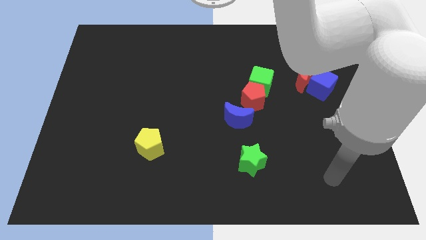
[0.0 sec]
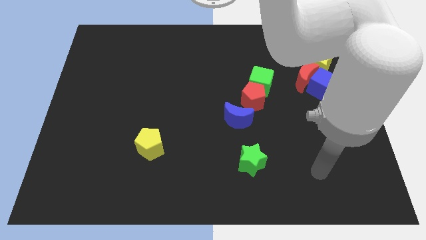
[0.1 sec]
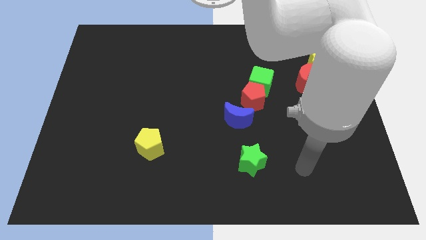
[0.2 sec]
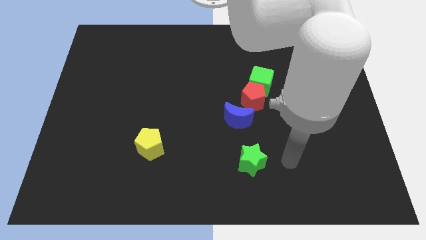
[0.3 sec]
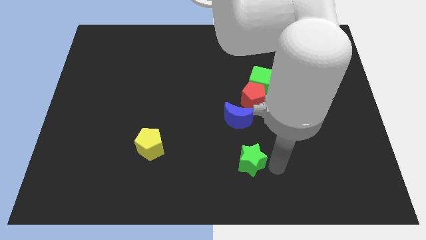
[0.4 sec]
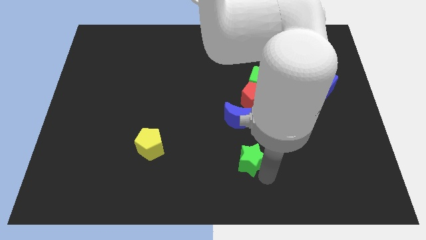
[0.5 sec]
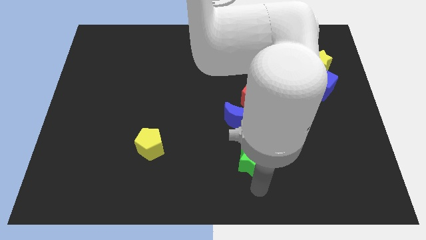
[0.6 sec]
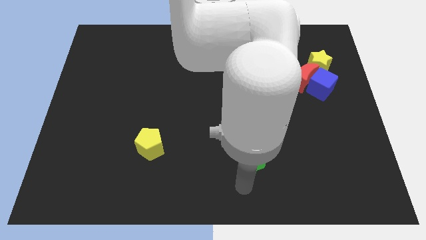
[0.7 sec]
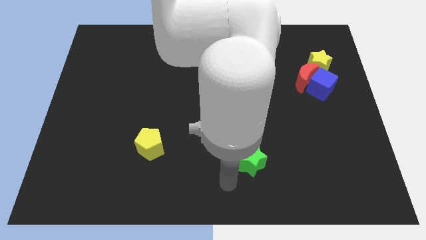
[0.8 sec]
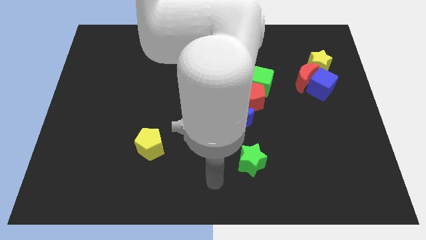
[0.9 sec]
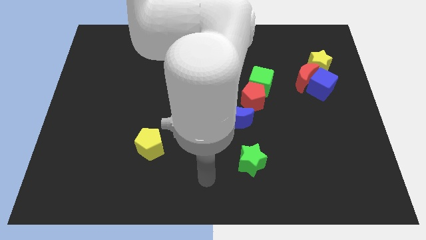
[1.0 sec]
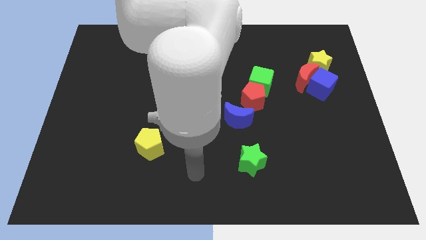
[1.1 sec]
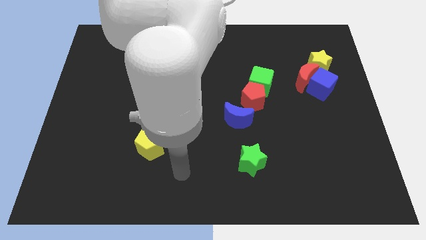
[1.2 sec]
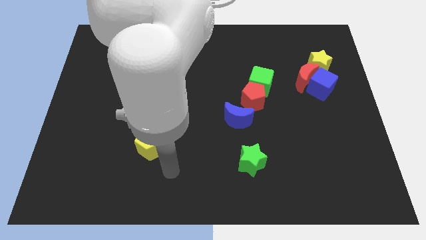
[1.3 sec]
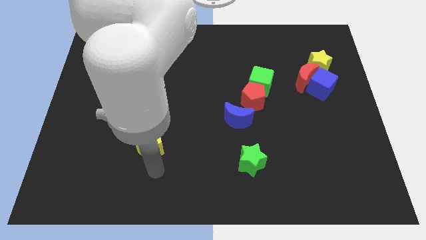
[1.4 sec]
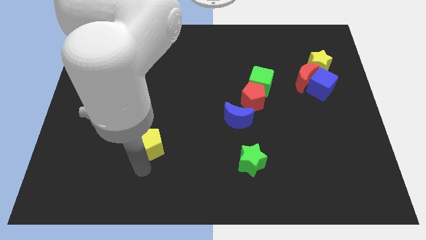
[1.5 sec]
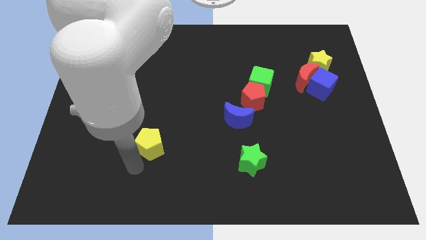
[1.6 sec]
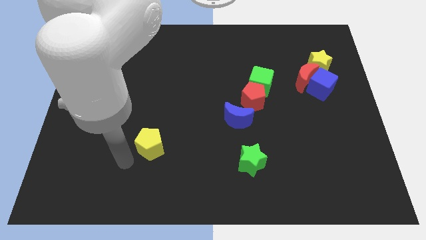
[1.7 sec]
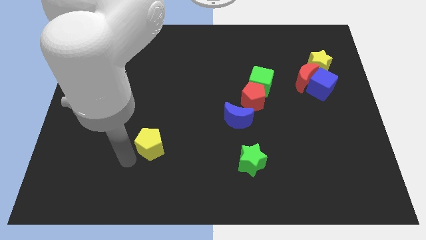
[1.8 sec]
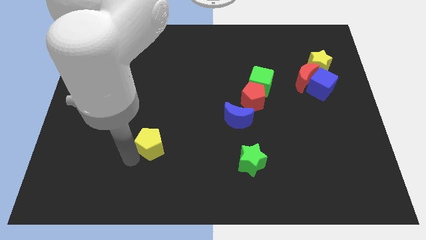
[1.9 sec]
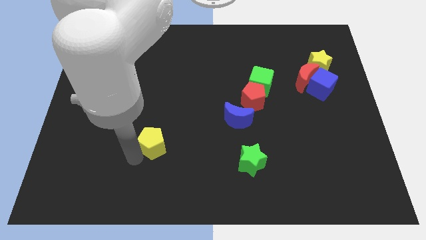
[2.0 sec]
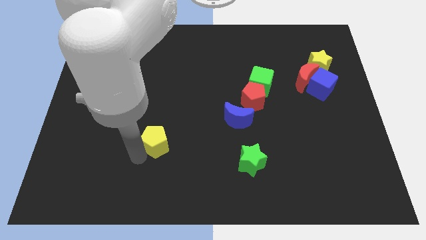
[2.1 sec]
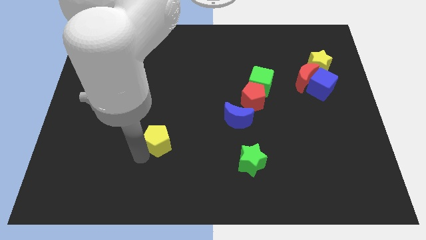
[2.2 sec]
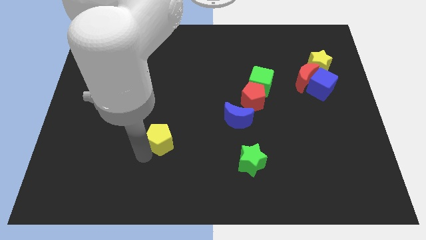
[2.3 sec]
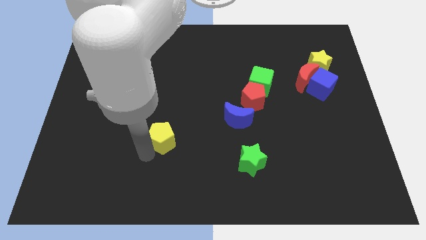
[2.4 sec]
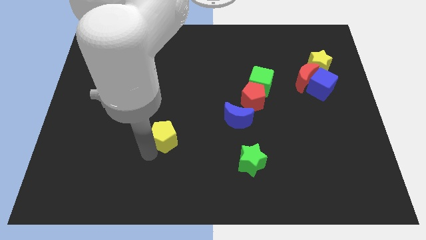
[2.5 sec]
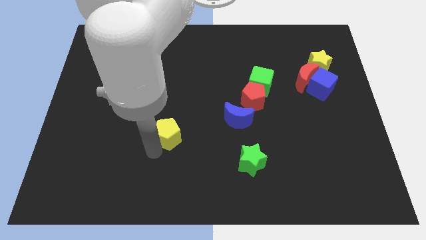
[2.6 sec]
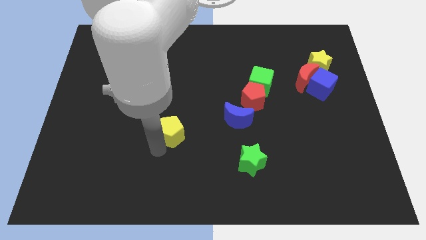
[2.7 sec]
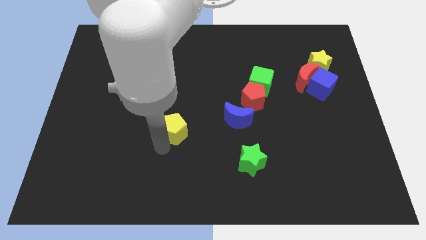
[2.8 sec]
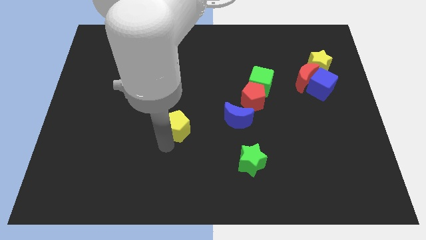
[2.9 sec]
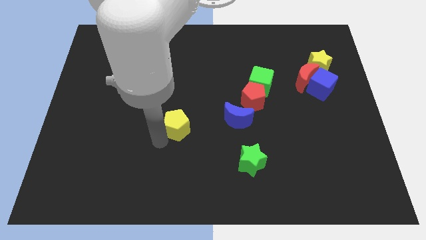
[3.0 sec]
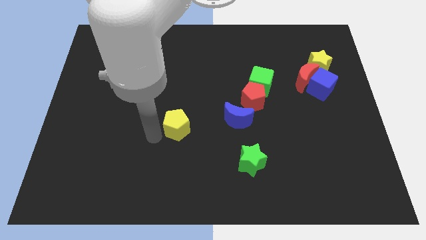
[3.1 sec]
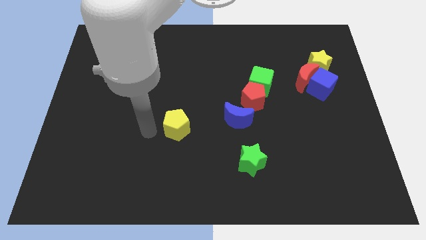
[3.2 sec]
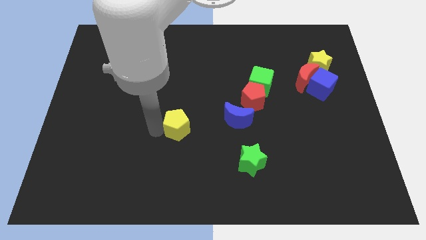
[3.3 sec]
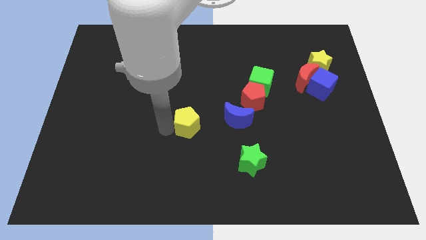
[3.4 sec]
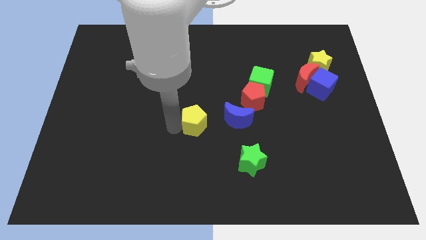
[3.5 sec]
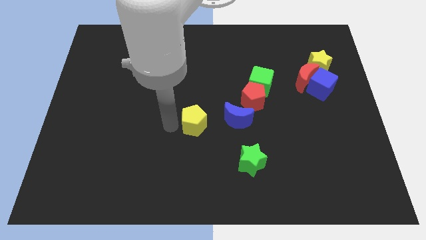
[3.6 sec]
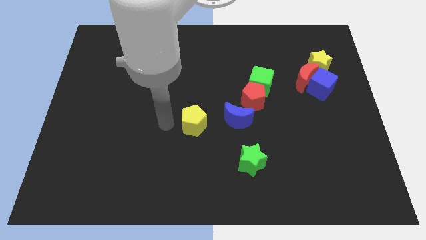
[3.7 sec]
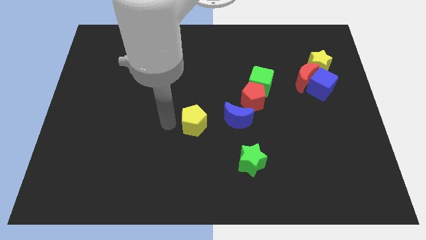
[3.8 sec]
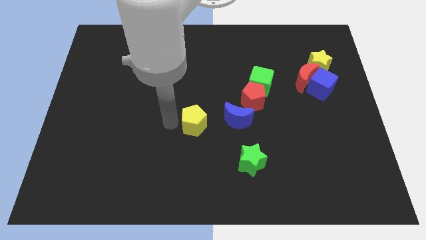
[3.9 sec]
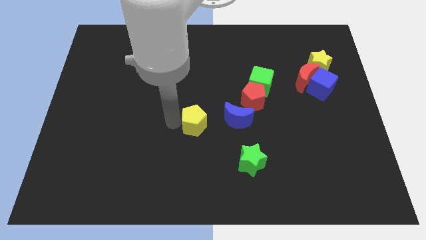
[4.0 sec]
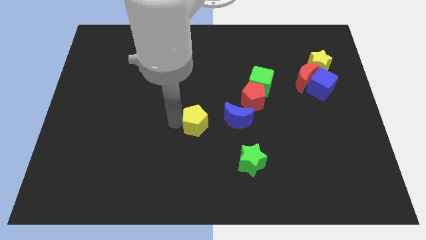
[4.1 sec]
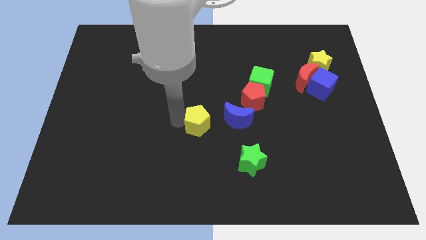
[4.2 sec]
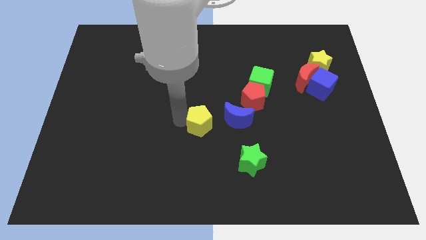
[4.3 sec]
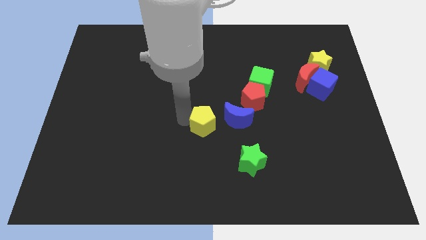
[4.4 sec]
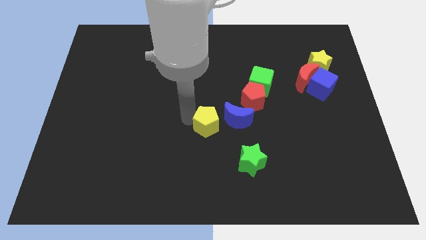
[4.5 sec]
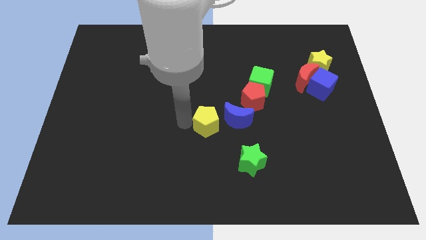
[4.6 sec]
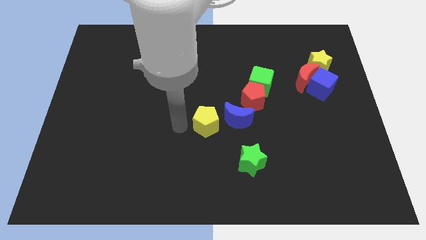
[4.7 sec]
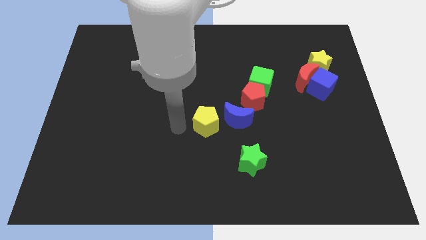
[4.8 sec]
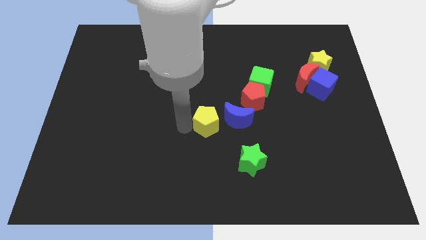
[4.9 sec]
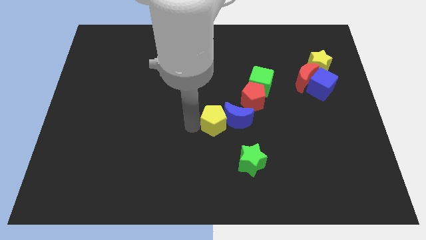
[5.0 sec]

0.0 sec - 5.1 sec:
slide the yellow pentagon close to the blue moon

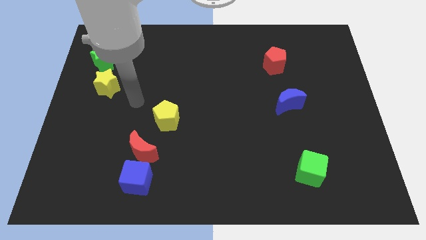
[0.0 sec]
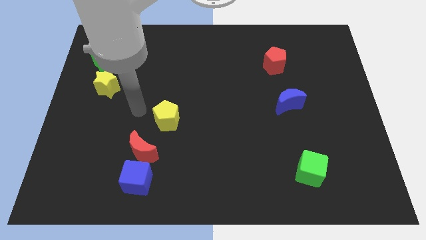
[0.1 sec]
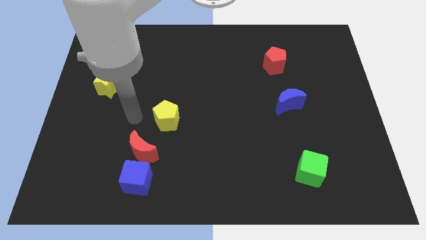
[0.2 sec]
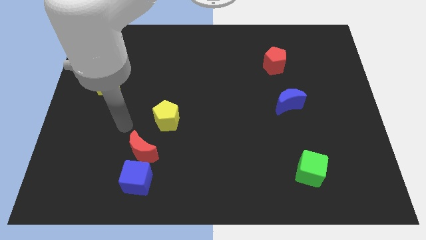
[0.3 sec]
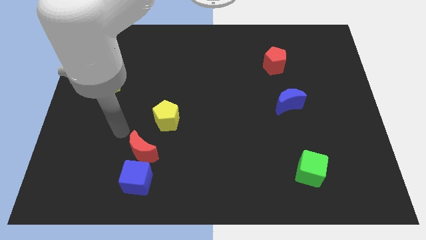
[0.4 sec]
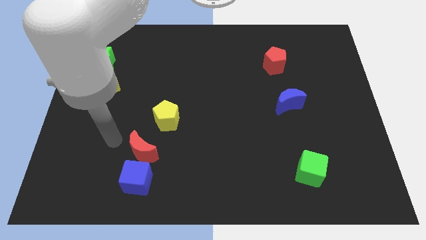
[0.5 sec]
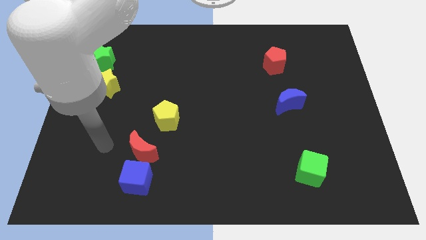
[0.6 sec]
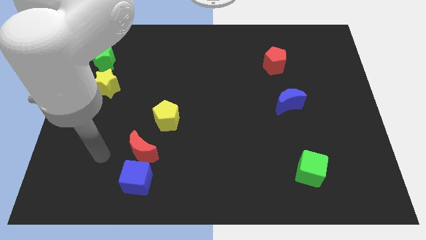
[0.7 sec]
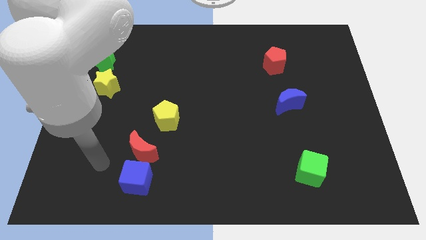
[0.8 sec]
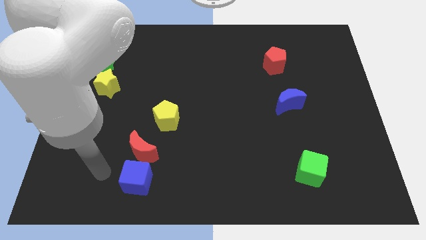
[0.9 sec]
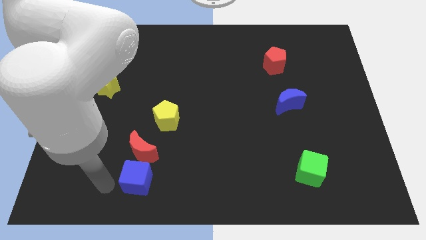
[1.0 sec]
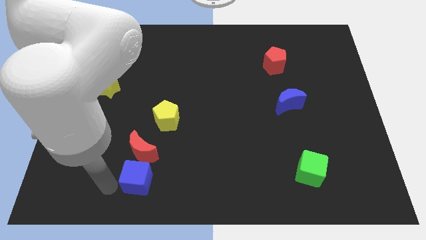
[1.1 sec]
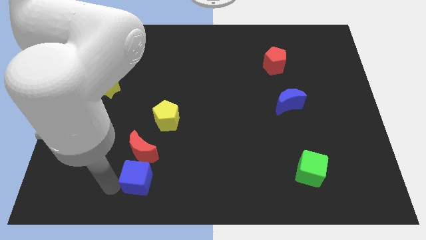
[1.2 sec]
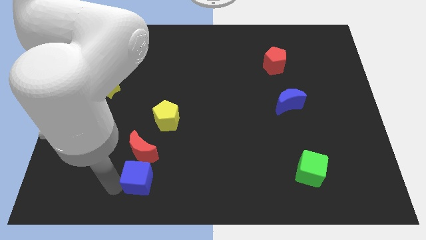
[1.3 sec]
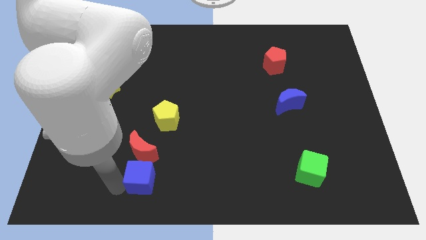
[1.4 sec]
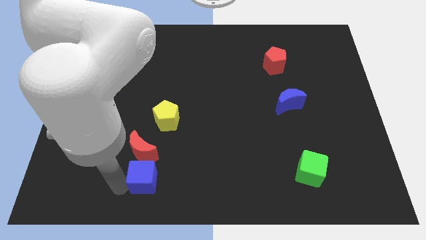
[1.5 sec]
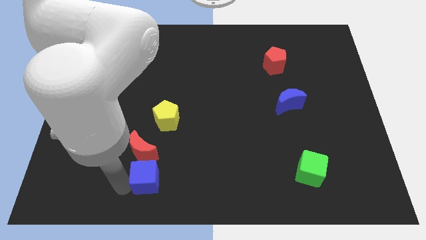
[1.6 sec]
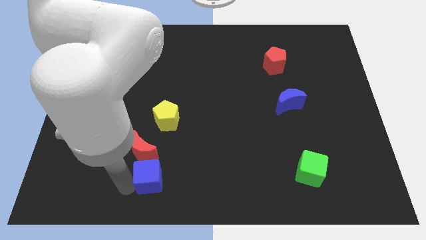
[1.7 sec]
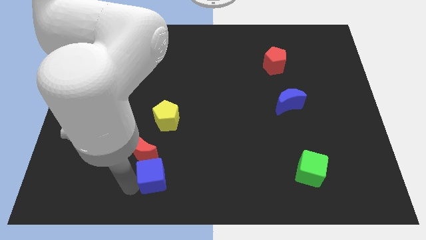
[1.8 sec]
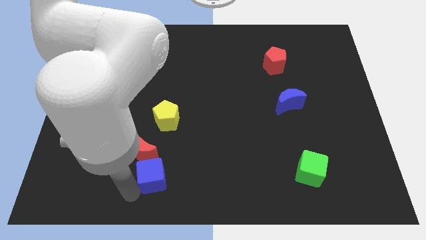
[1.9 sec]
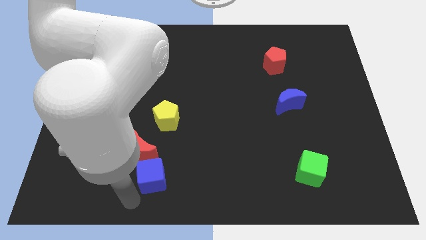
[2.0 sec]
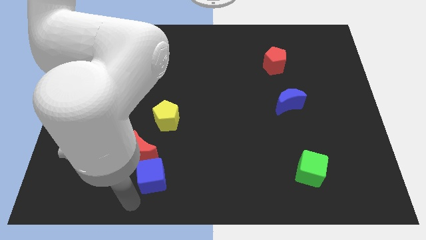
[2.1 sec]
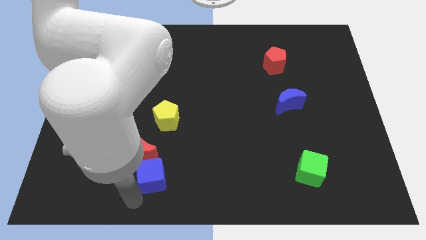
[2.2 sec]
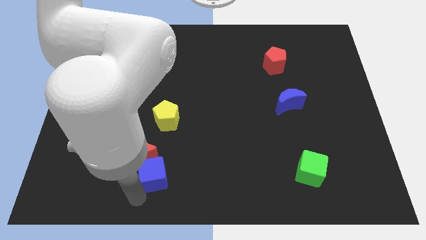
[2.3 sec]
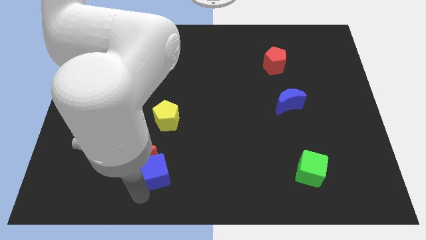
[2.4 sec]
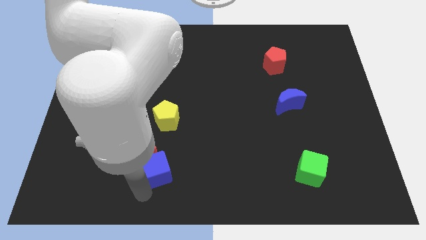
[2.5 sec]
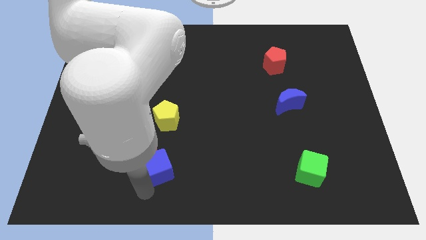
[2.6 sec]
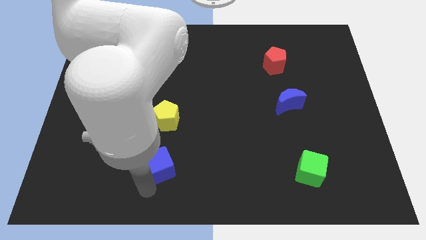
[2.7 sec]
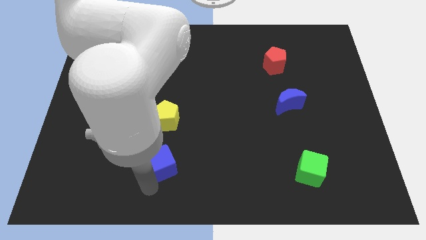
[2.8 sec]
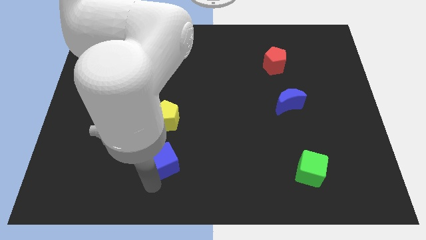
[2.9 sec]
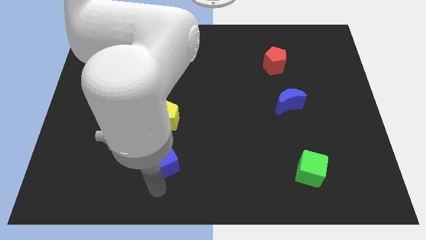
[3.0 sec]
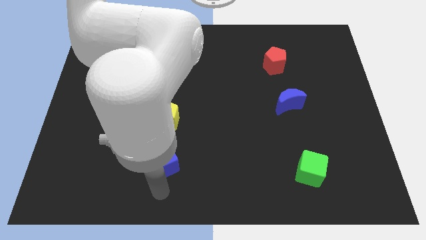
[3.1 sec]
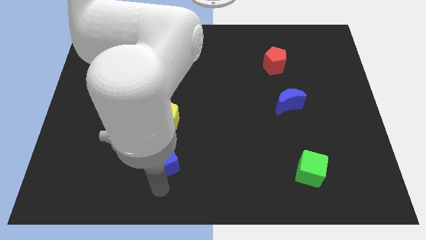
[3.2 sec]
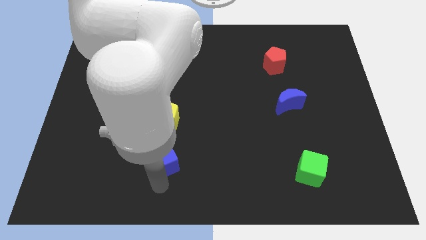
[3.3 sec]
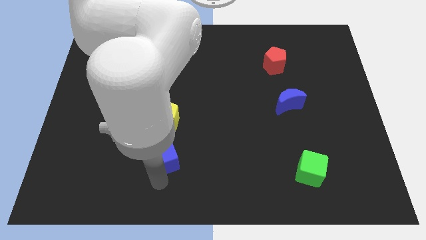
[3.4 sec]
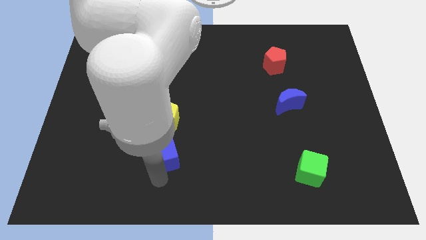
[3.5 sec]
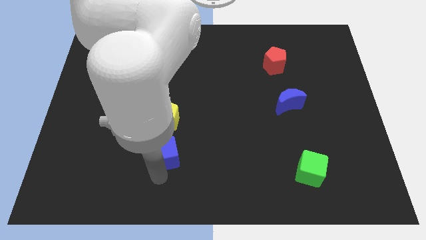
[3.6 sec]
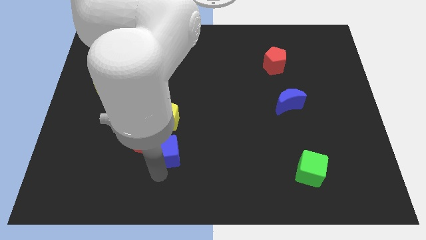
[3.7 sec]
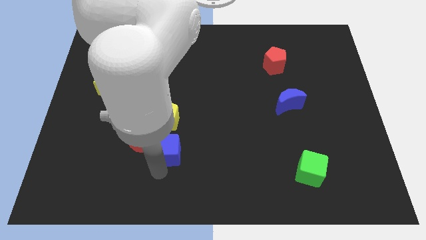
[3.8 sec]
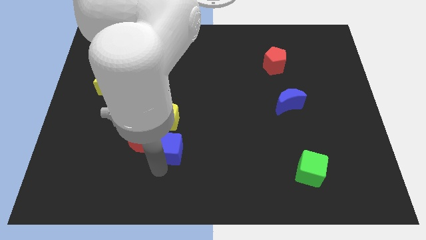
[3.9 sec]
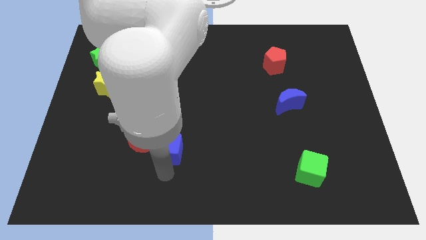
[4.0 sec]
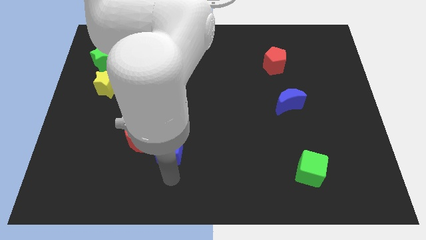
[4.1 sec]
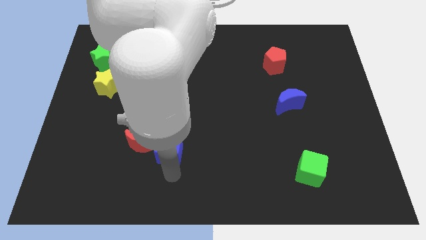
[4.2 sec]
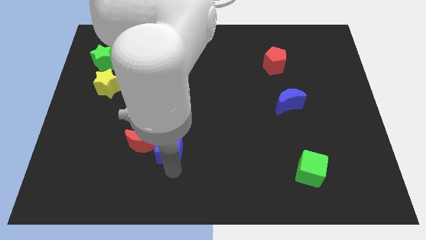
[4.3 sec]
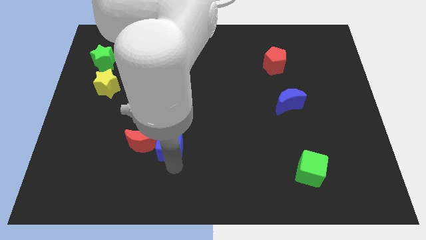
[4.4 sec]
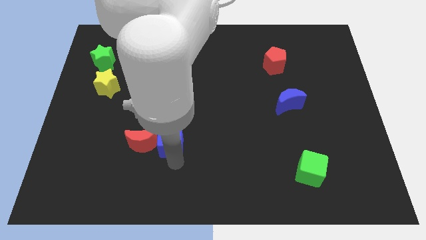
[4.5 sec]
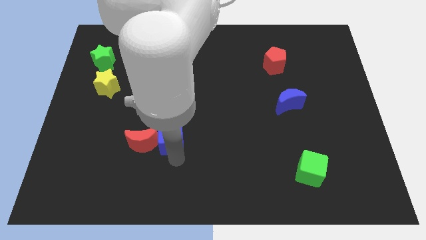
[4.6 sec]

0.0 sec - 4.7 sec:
push the blue cube next to the yellow pentagon
